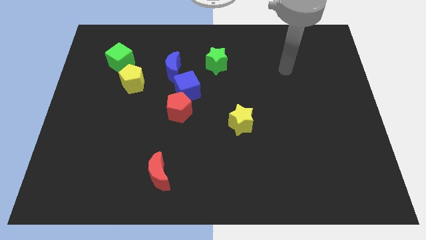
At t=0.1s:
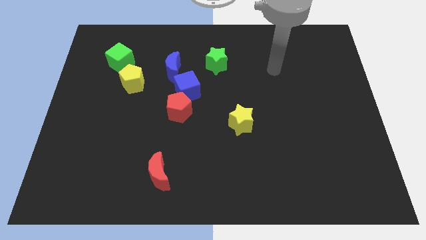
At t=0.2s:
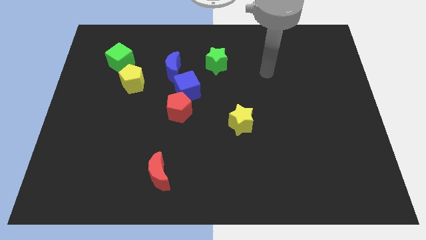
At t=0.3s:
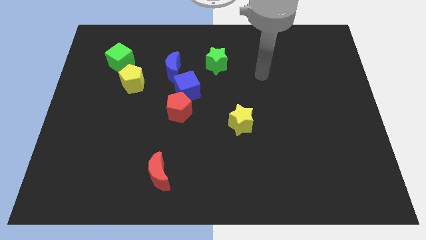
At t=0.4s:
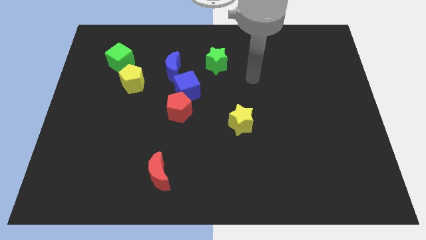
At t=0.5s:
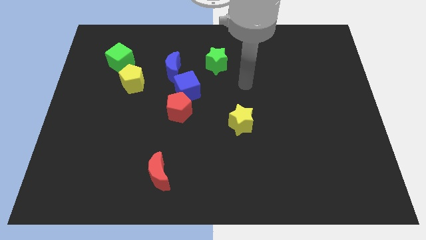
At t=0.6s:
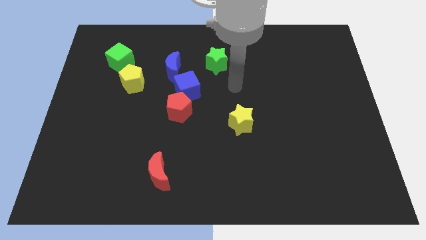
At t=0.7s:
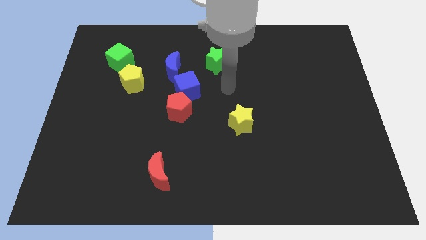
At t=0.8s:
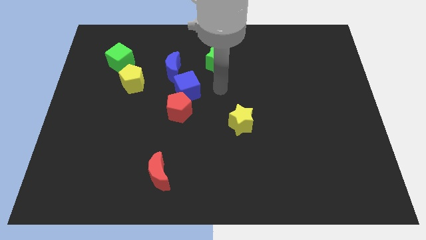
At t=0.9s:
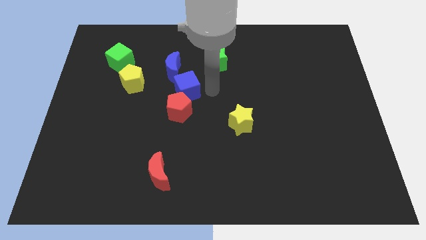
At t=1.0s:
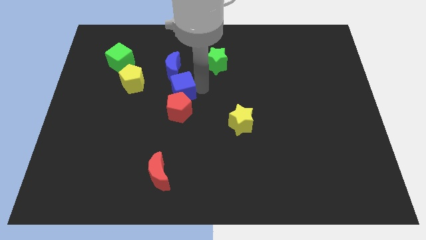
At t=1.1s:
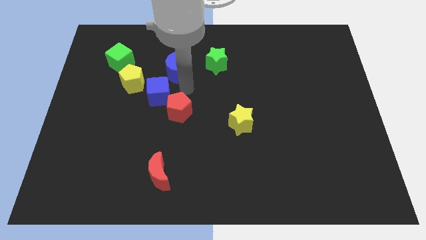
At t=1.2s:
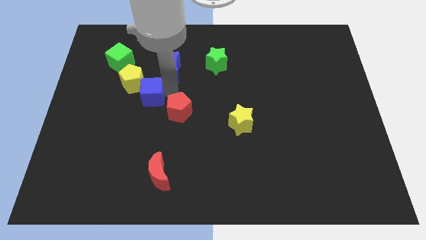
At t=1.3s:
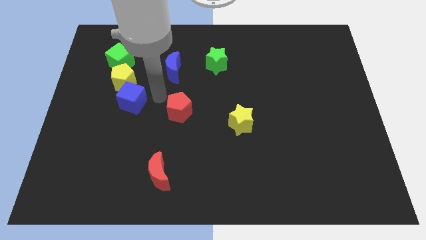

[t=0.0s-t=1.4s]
move the red pentagon away from the blue cube

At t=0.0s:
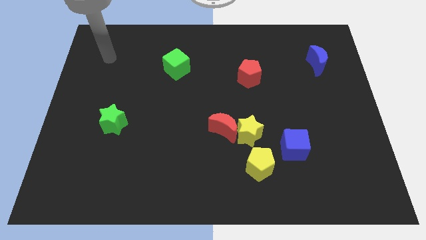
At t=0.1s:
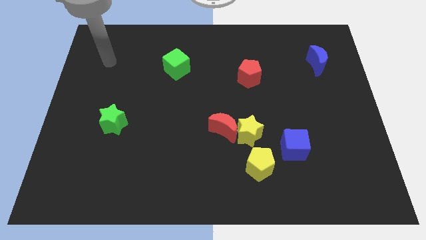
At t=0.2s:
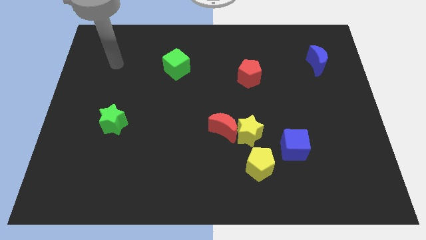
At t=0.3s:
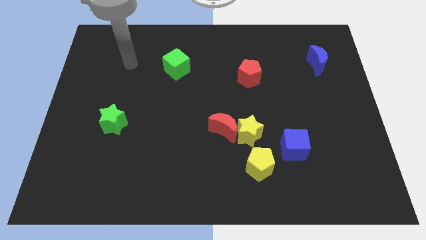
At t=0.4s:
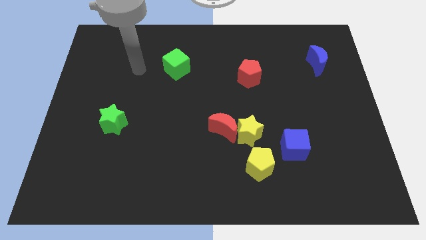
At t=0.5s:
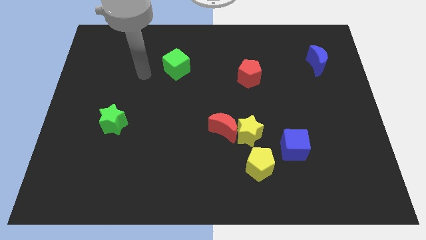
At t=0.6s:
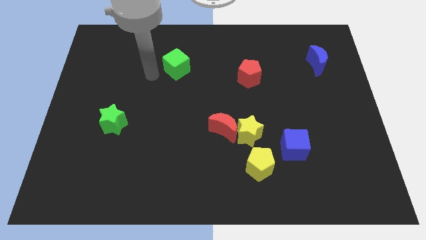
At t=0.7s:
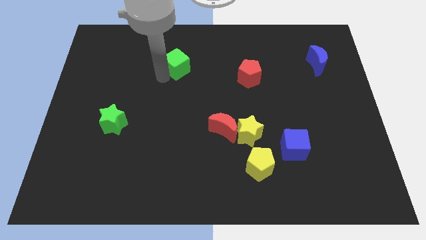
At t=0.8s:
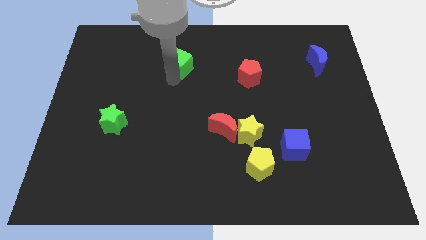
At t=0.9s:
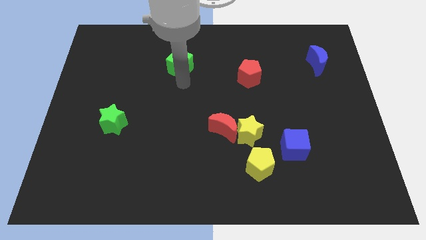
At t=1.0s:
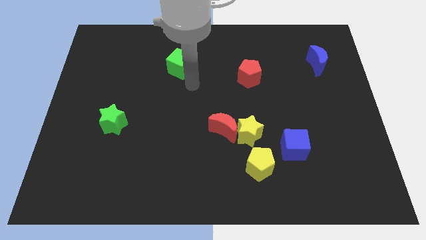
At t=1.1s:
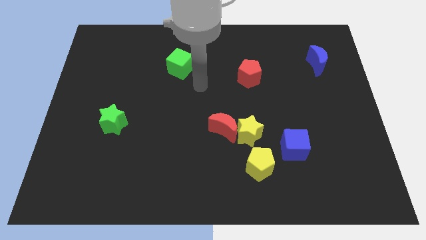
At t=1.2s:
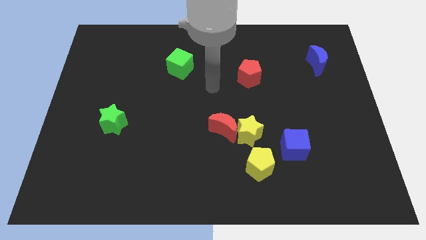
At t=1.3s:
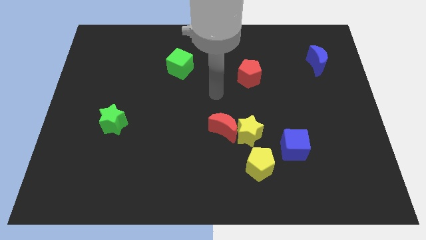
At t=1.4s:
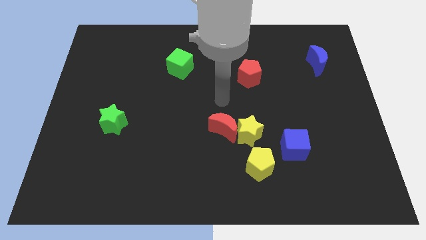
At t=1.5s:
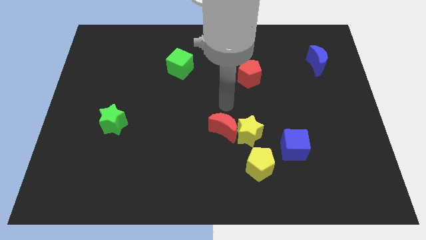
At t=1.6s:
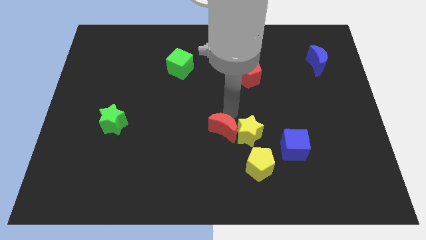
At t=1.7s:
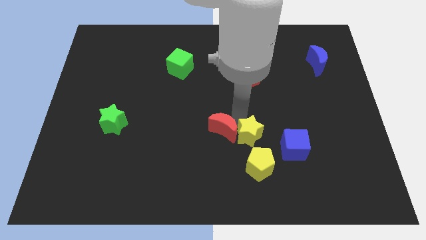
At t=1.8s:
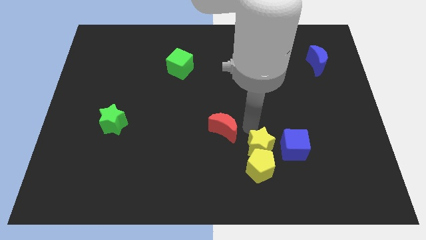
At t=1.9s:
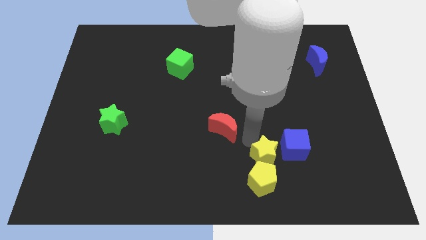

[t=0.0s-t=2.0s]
pull the red moon apart from the yellow star

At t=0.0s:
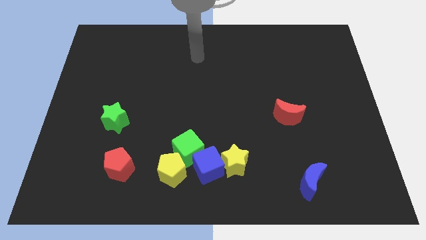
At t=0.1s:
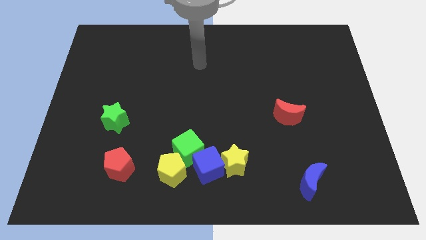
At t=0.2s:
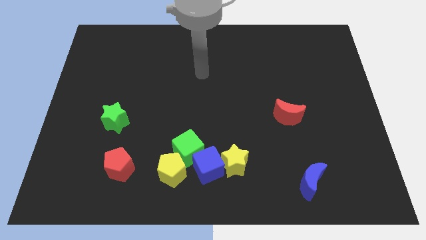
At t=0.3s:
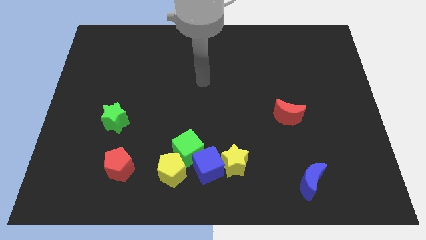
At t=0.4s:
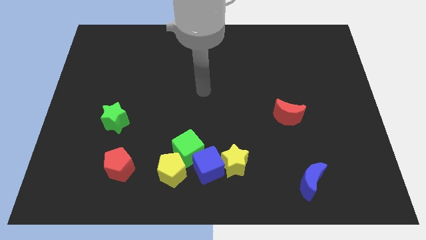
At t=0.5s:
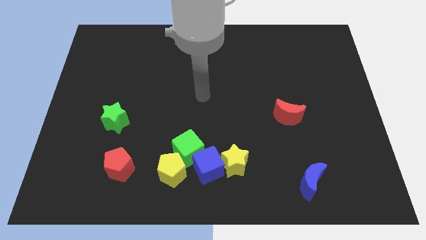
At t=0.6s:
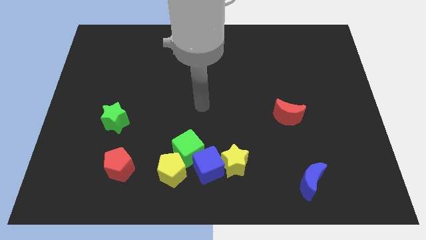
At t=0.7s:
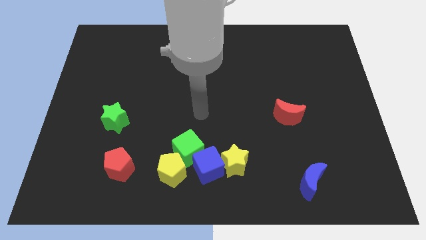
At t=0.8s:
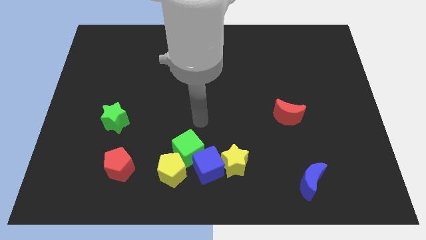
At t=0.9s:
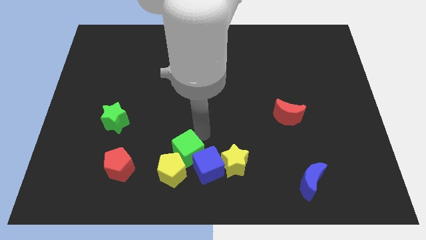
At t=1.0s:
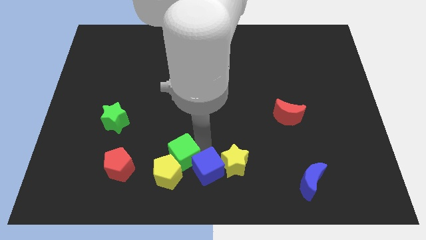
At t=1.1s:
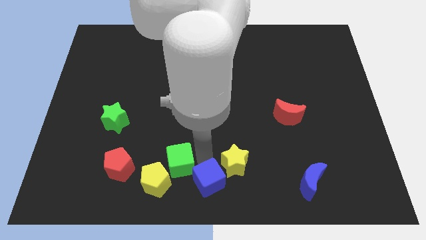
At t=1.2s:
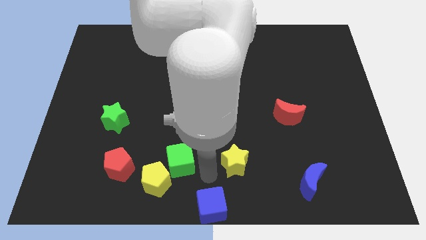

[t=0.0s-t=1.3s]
move the yellow star away from the blue cube

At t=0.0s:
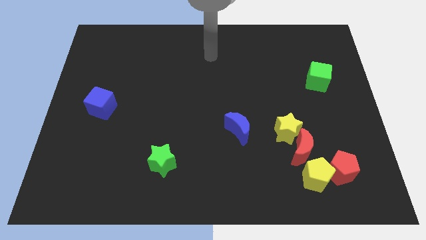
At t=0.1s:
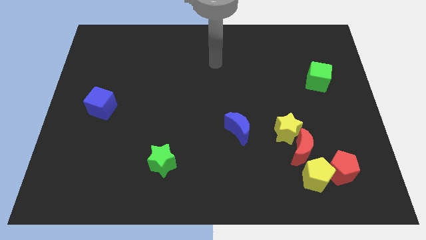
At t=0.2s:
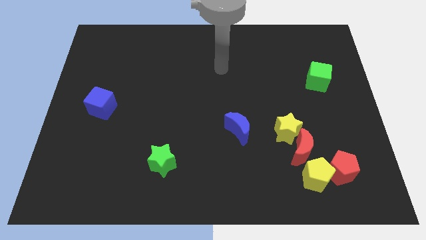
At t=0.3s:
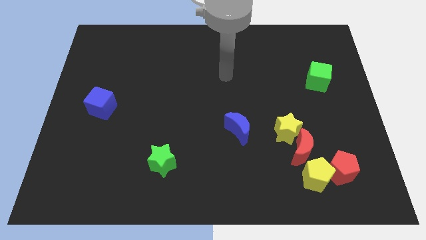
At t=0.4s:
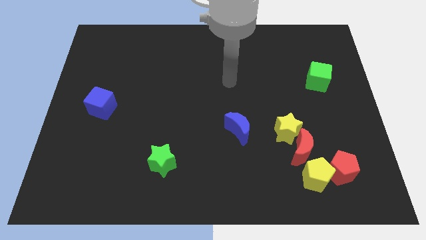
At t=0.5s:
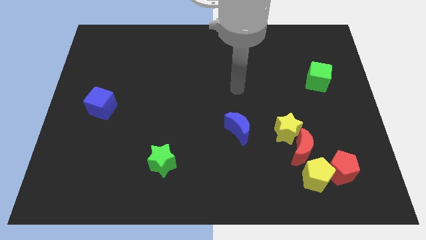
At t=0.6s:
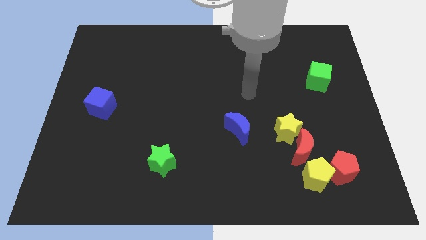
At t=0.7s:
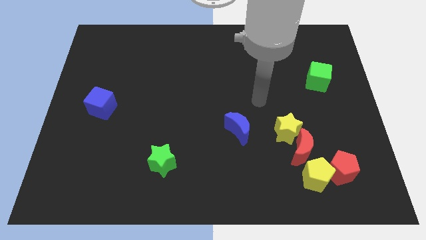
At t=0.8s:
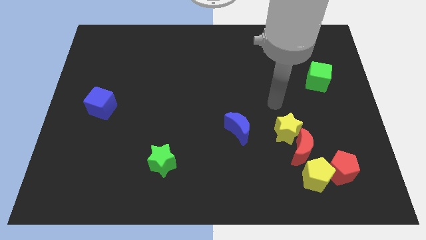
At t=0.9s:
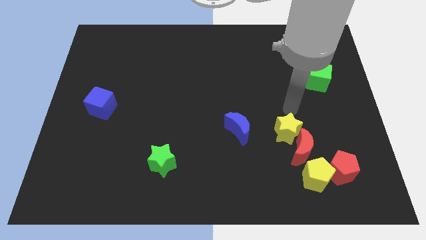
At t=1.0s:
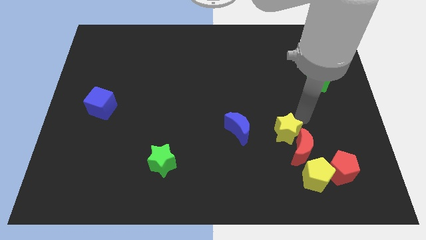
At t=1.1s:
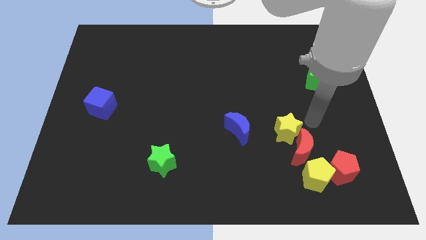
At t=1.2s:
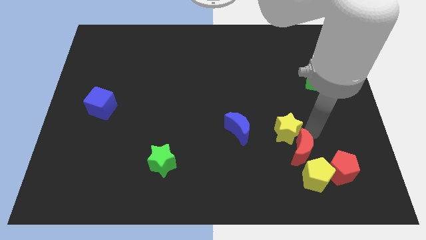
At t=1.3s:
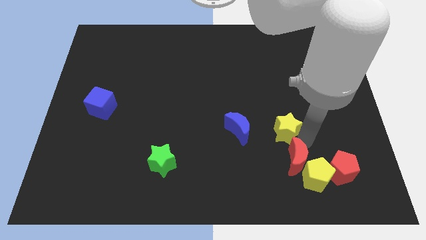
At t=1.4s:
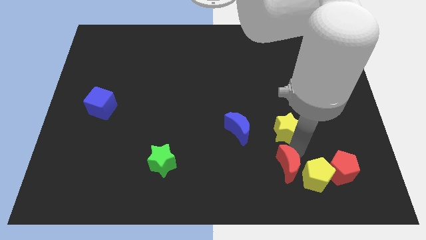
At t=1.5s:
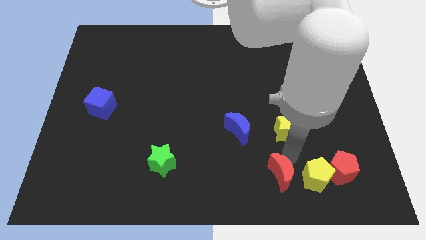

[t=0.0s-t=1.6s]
pull the yellow star apart from the red moon

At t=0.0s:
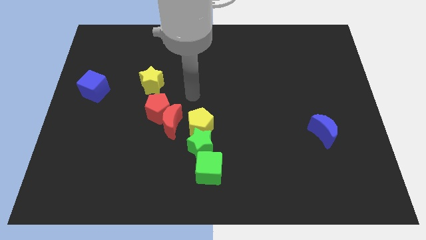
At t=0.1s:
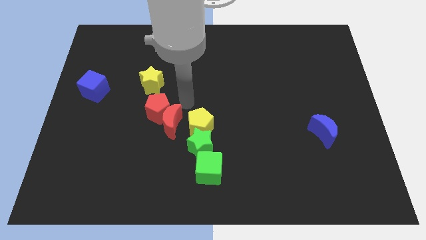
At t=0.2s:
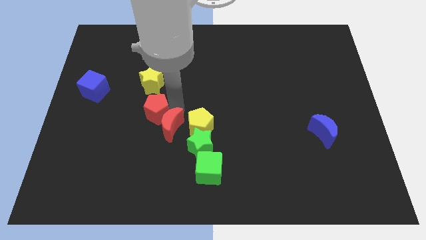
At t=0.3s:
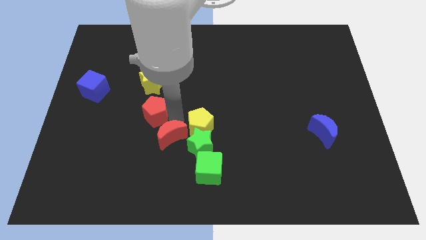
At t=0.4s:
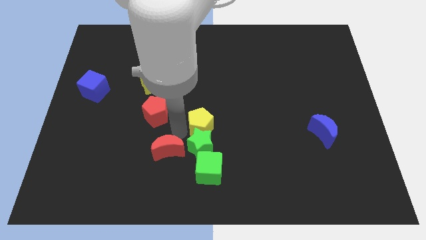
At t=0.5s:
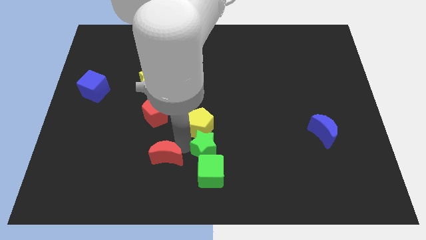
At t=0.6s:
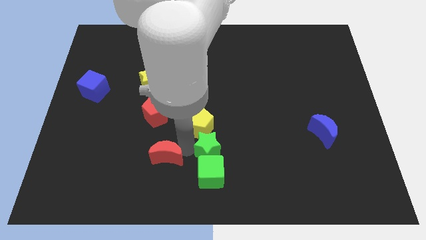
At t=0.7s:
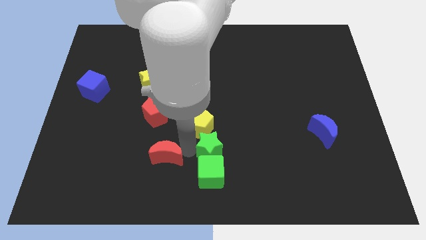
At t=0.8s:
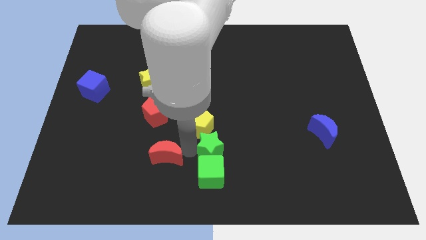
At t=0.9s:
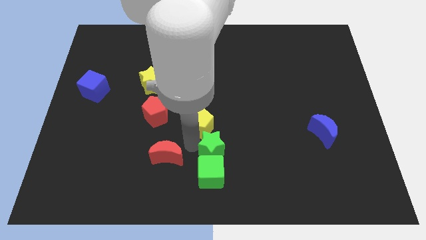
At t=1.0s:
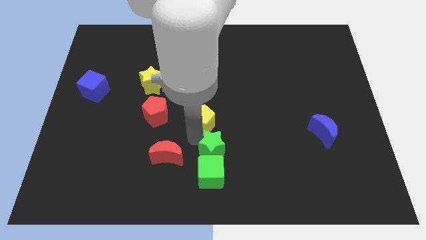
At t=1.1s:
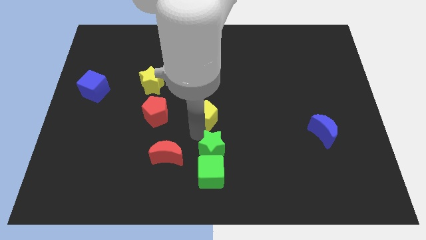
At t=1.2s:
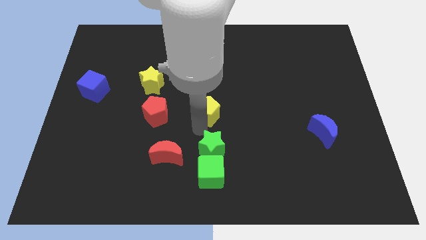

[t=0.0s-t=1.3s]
pull the yellow pentagon apart from the green star and red moon

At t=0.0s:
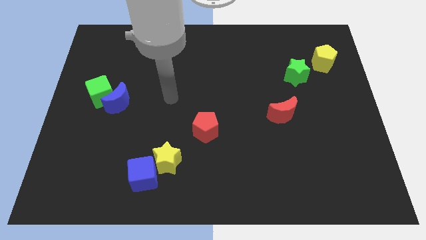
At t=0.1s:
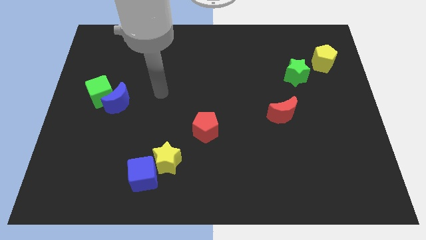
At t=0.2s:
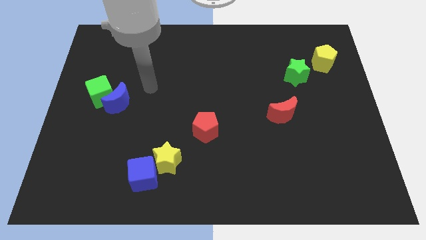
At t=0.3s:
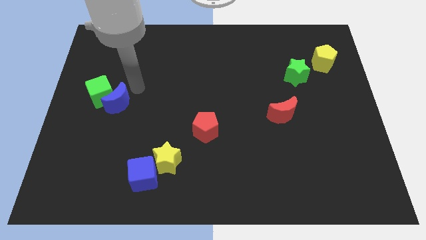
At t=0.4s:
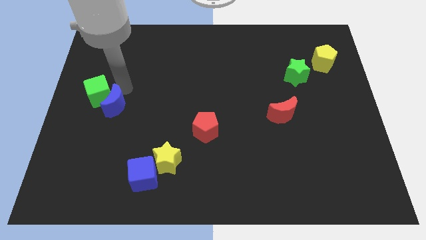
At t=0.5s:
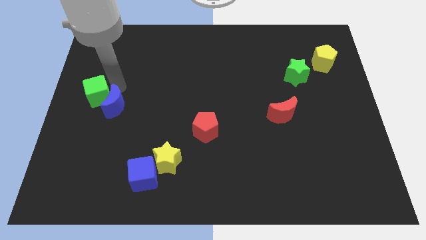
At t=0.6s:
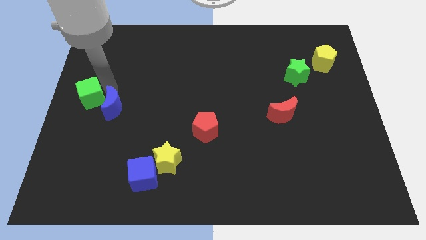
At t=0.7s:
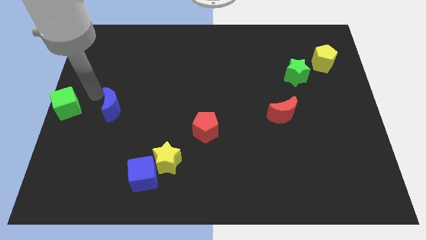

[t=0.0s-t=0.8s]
separate the blue moon from the green cube

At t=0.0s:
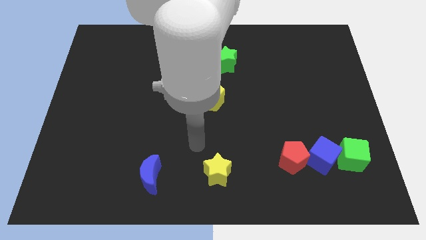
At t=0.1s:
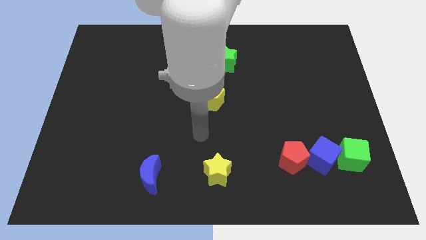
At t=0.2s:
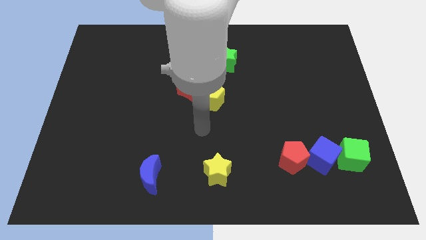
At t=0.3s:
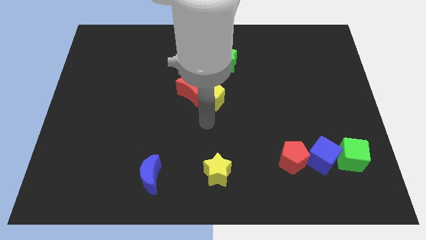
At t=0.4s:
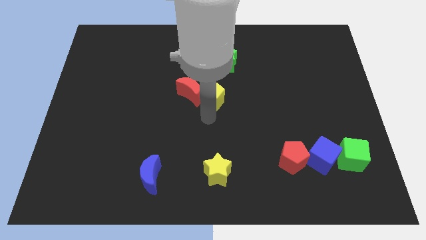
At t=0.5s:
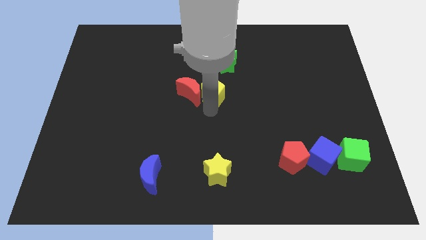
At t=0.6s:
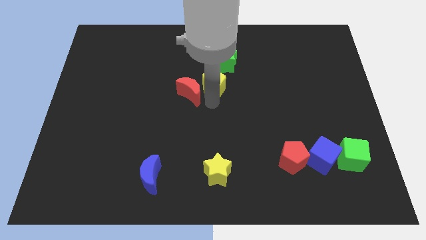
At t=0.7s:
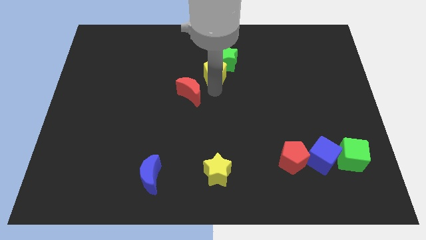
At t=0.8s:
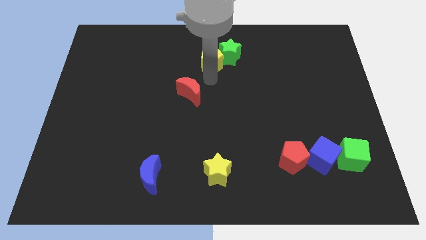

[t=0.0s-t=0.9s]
move the red moon away from the yellow pentagon

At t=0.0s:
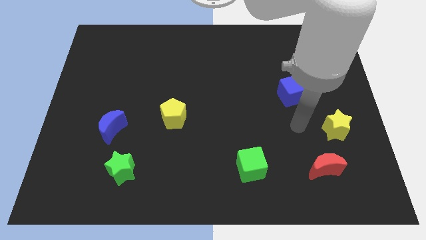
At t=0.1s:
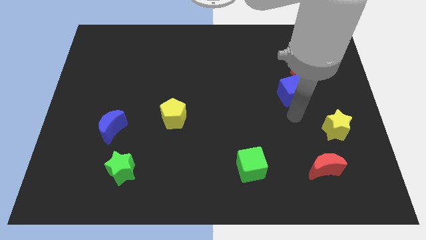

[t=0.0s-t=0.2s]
separate the red pentagon from the blue cube
